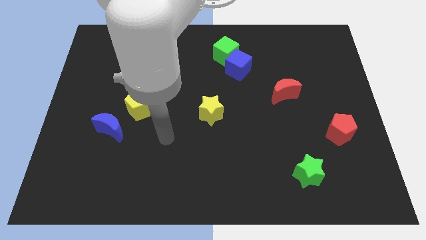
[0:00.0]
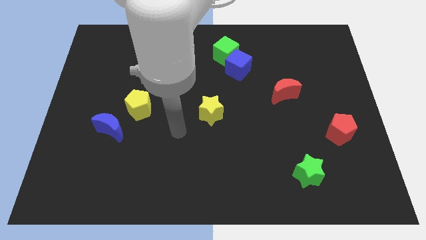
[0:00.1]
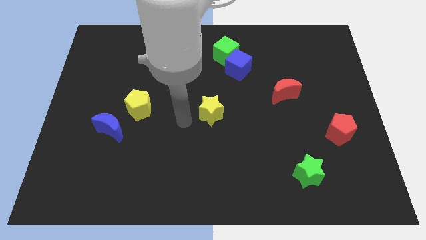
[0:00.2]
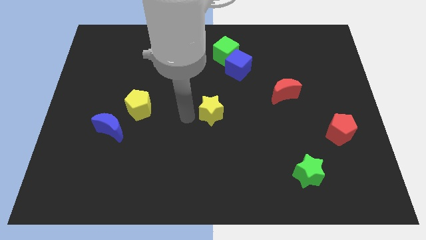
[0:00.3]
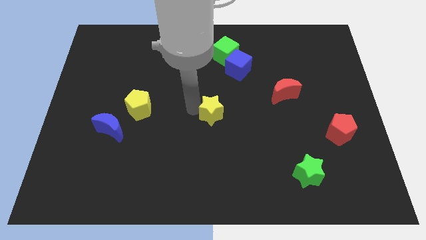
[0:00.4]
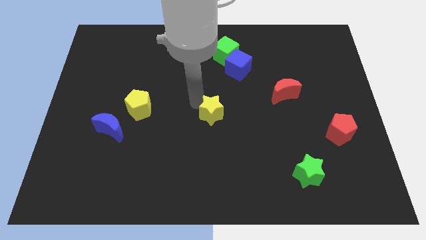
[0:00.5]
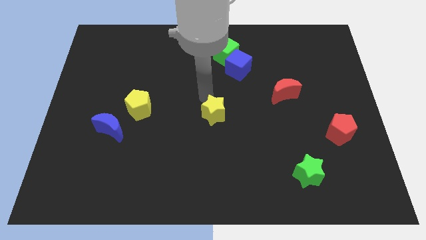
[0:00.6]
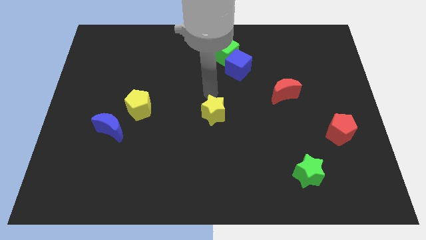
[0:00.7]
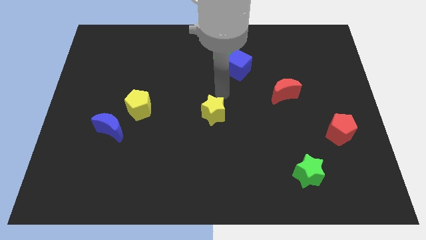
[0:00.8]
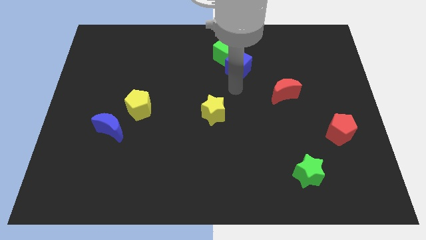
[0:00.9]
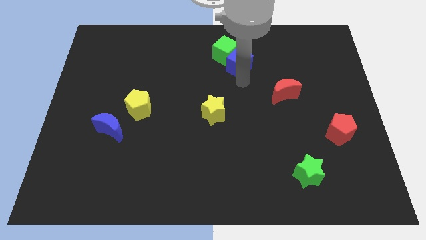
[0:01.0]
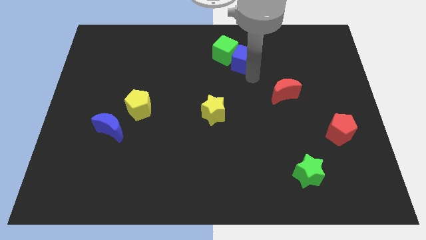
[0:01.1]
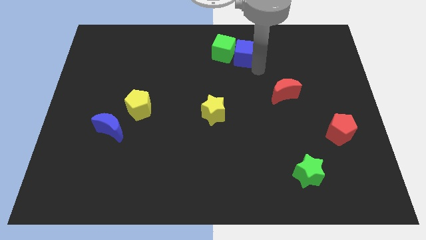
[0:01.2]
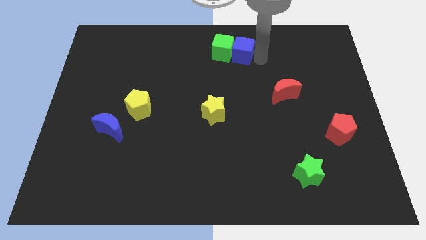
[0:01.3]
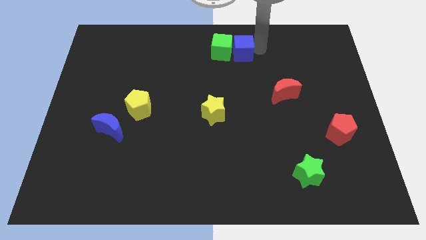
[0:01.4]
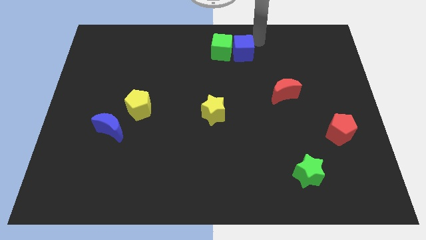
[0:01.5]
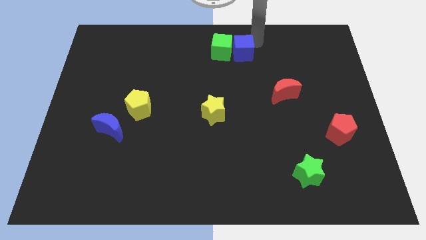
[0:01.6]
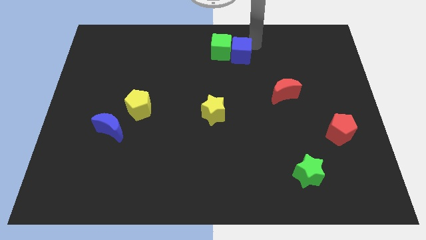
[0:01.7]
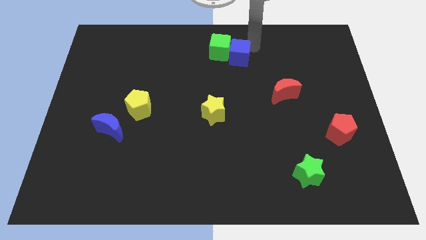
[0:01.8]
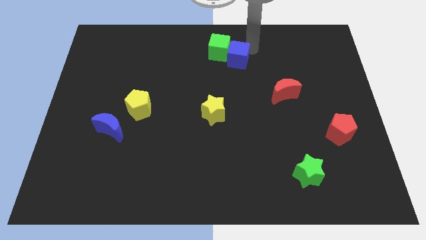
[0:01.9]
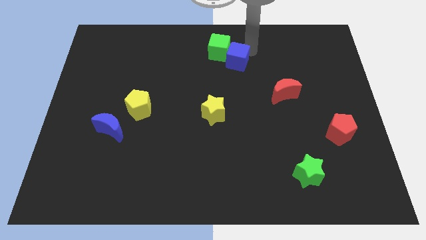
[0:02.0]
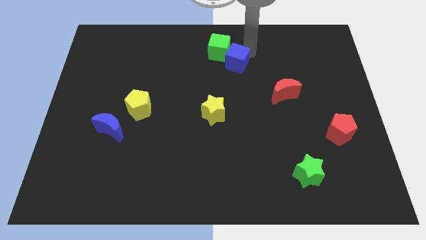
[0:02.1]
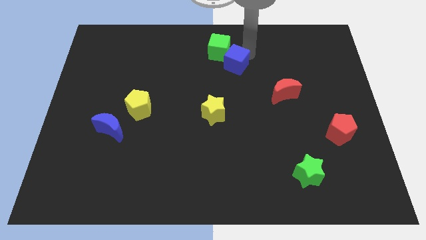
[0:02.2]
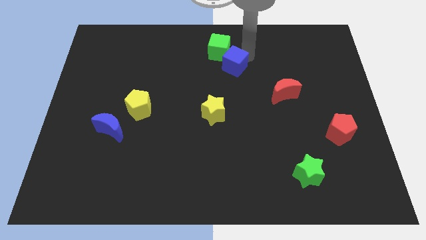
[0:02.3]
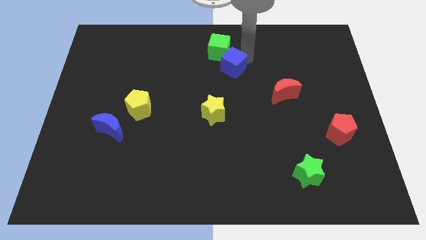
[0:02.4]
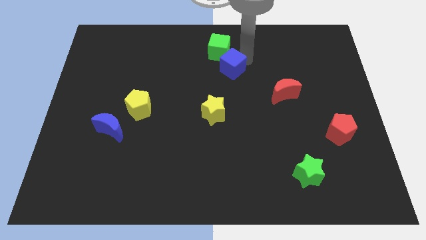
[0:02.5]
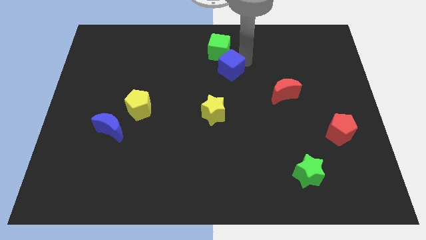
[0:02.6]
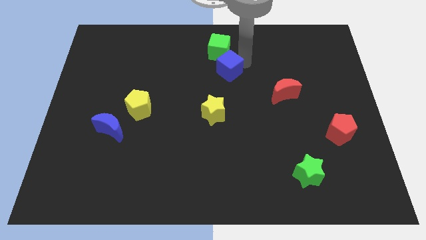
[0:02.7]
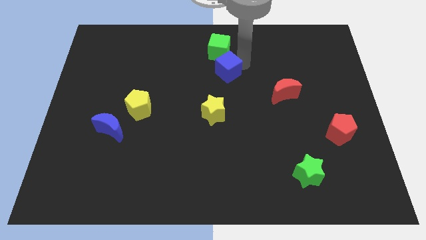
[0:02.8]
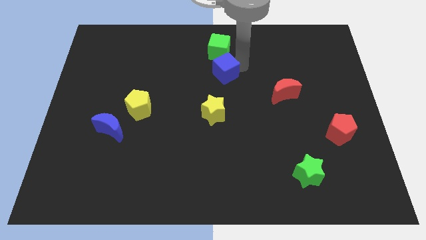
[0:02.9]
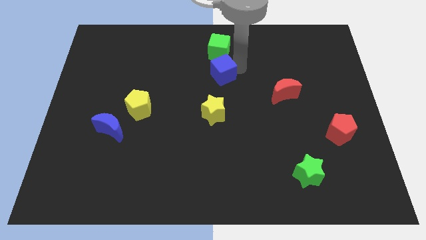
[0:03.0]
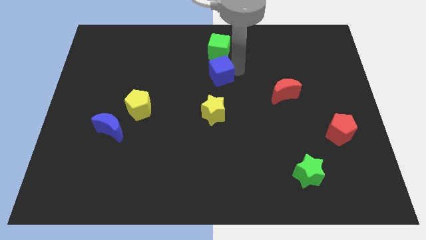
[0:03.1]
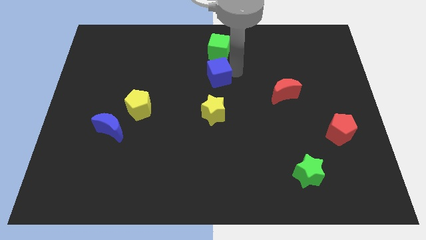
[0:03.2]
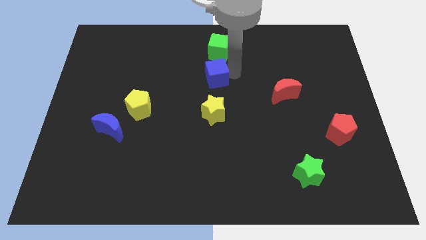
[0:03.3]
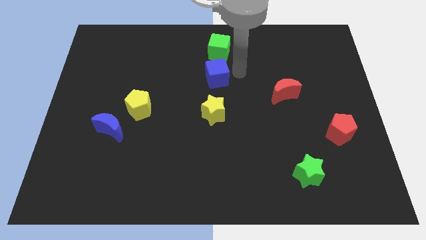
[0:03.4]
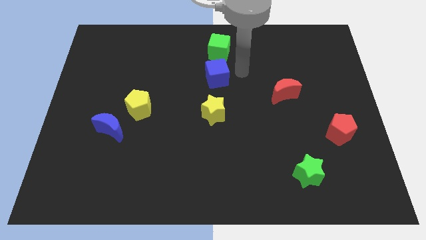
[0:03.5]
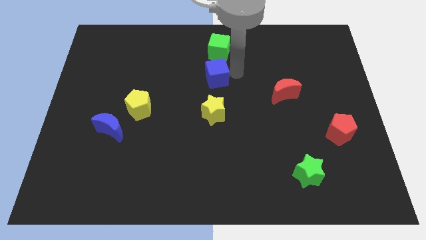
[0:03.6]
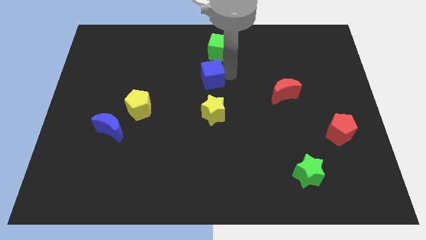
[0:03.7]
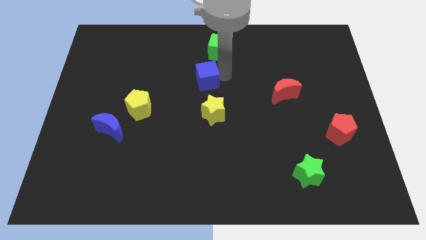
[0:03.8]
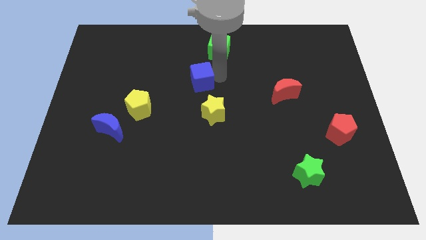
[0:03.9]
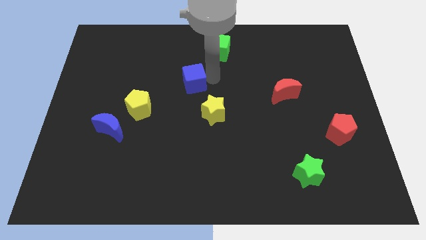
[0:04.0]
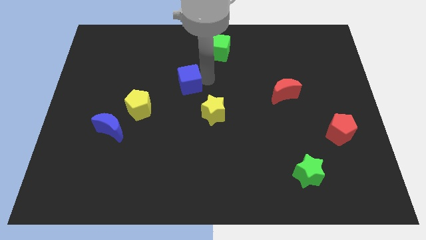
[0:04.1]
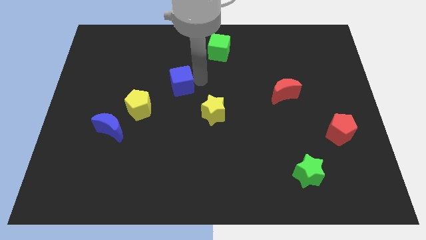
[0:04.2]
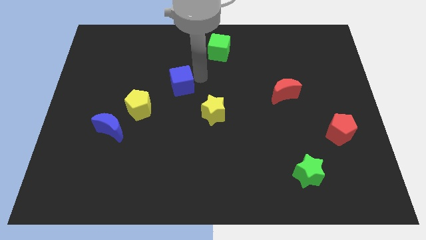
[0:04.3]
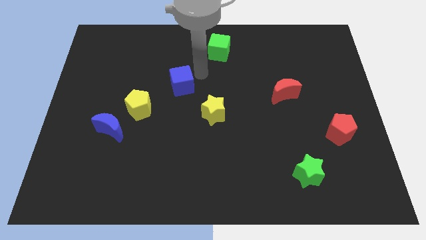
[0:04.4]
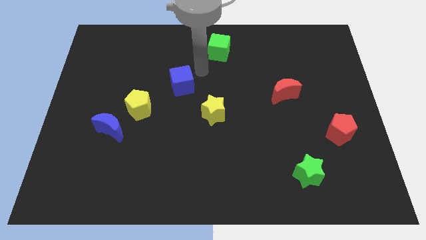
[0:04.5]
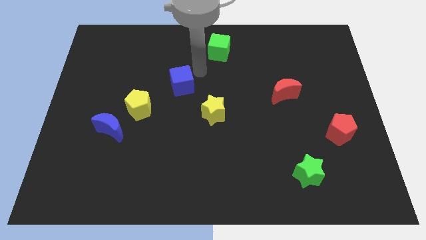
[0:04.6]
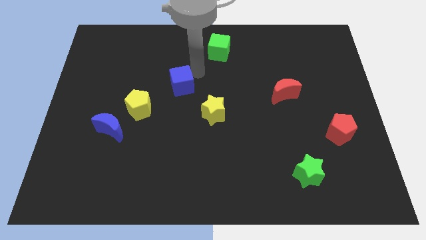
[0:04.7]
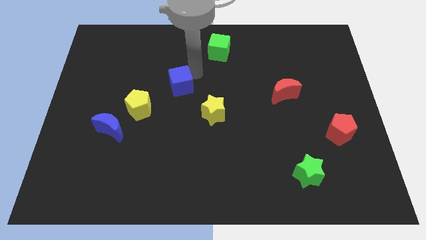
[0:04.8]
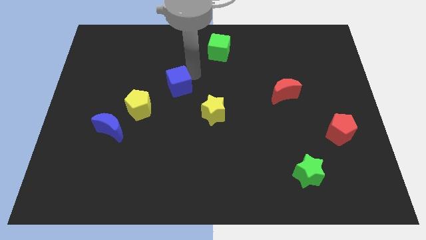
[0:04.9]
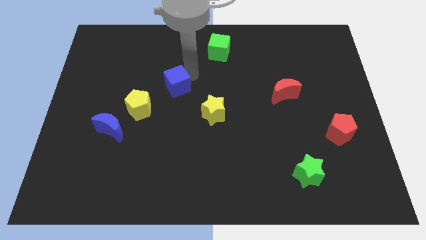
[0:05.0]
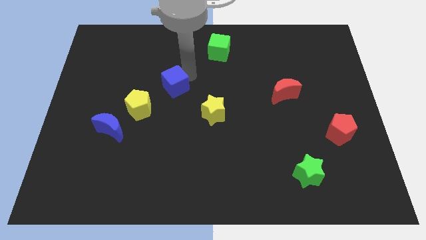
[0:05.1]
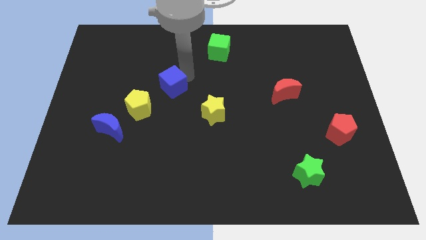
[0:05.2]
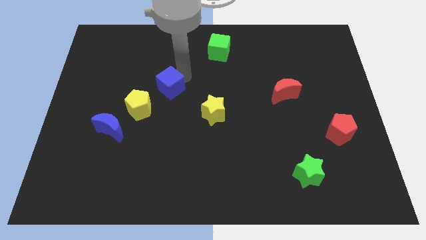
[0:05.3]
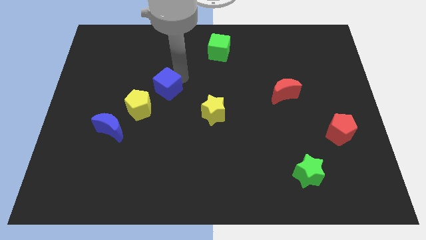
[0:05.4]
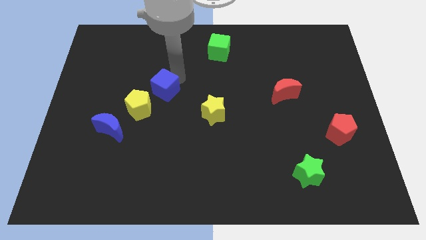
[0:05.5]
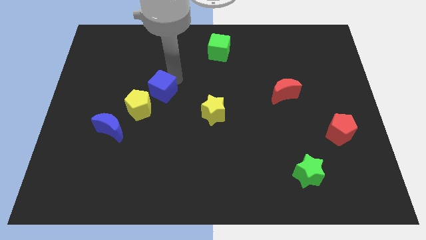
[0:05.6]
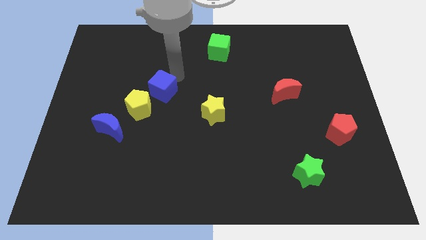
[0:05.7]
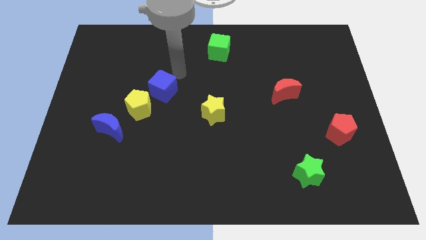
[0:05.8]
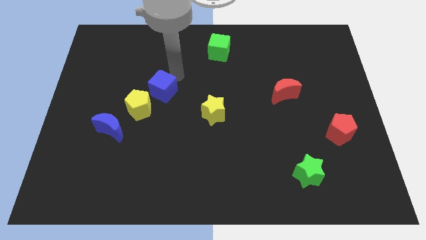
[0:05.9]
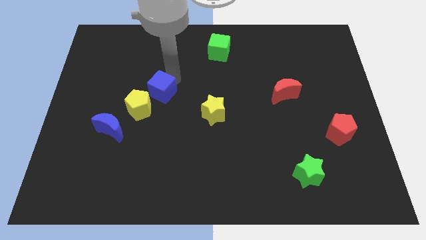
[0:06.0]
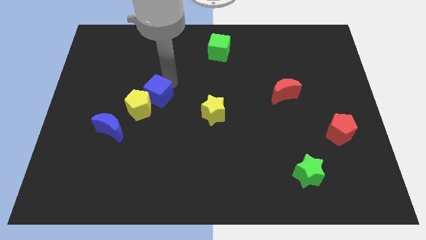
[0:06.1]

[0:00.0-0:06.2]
move the blue cube to the yellow pentagon

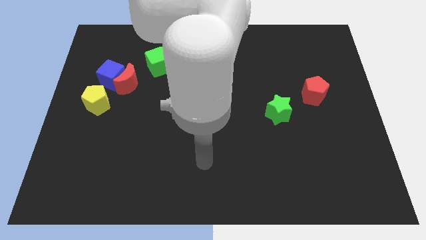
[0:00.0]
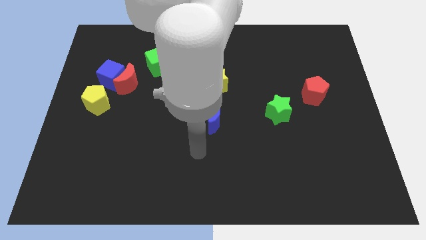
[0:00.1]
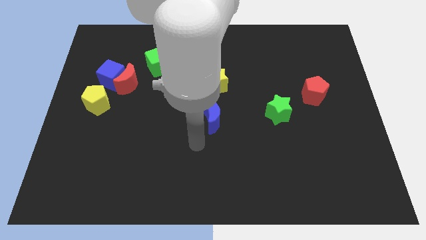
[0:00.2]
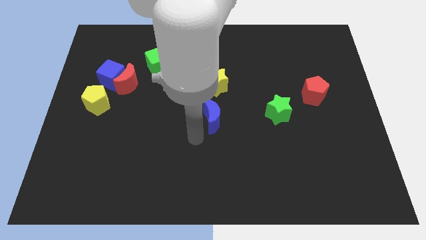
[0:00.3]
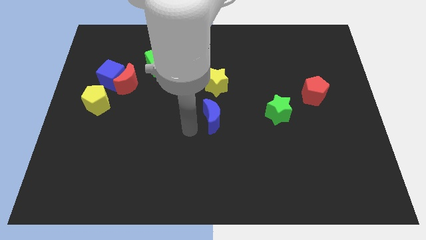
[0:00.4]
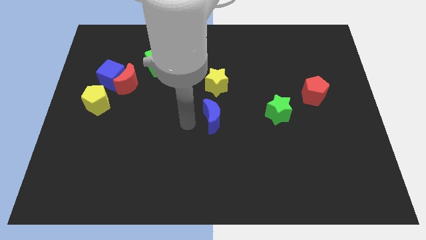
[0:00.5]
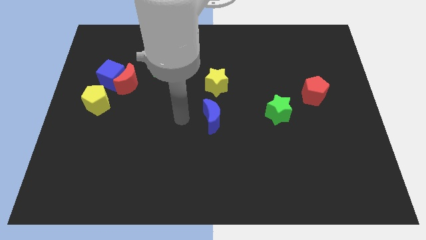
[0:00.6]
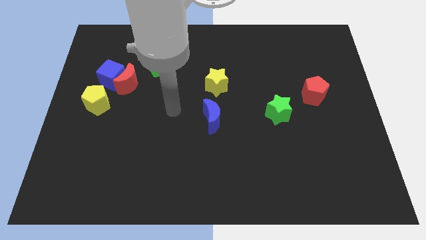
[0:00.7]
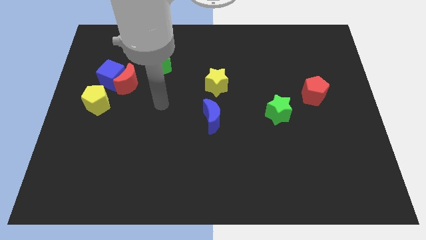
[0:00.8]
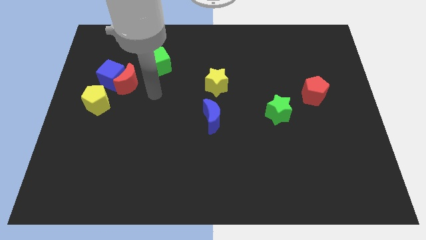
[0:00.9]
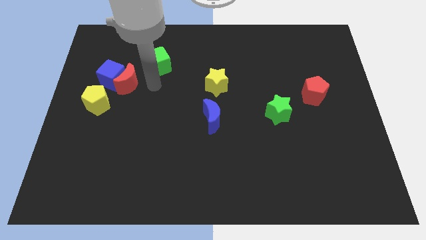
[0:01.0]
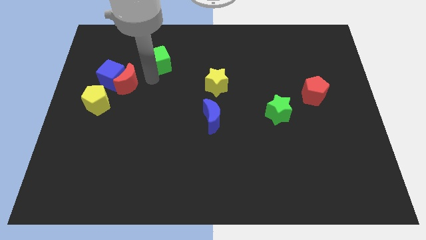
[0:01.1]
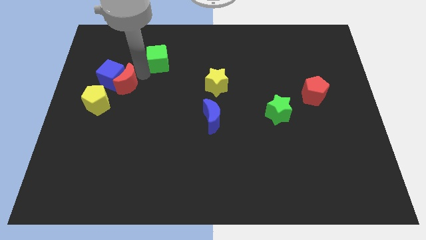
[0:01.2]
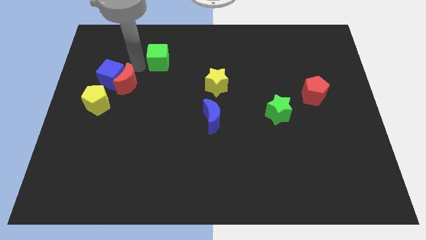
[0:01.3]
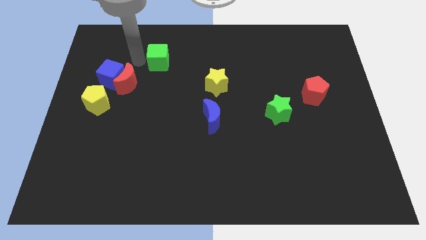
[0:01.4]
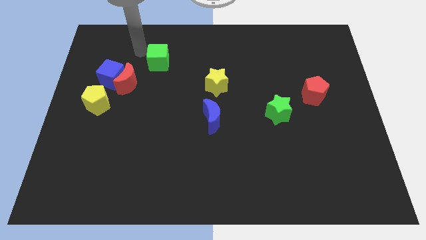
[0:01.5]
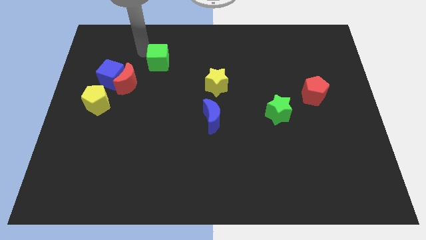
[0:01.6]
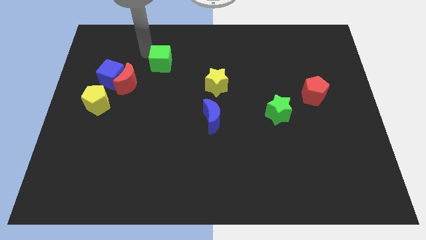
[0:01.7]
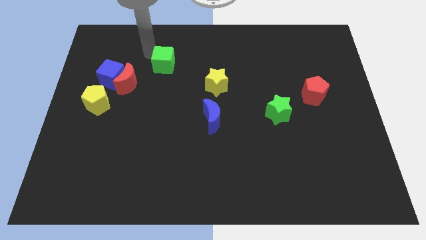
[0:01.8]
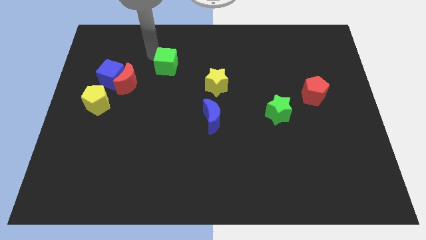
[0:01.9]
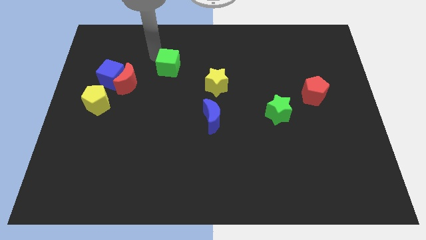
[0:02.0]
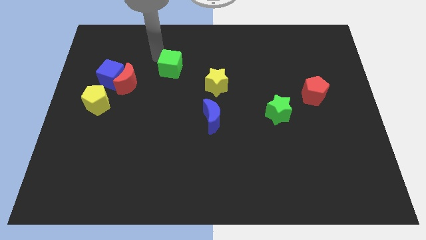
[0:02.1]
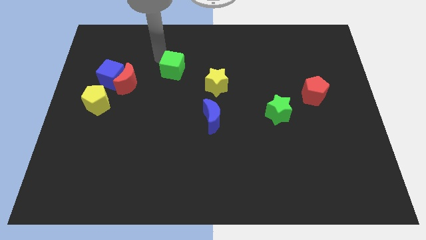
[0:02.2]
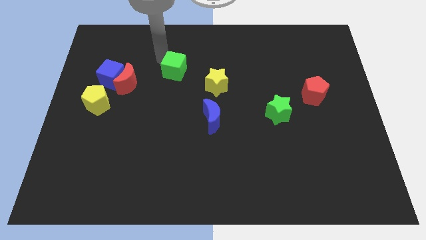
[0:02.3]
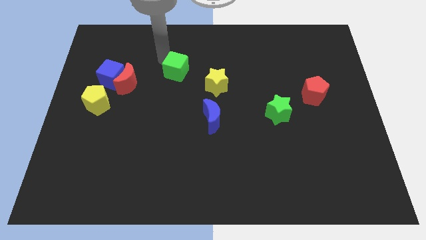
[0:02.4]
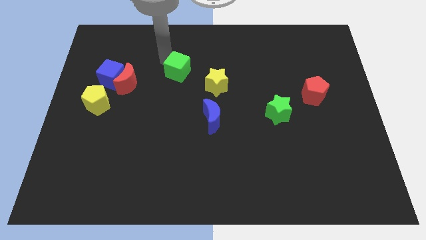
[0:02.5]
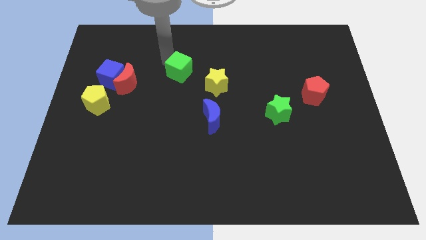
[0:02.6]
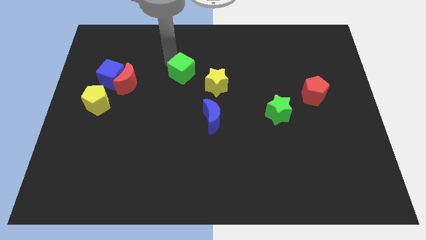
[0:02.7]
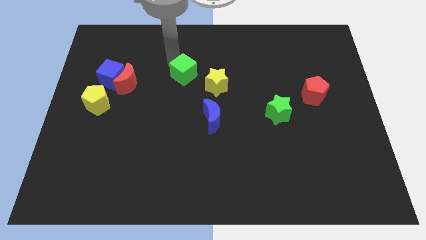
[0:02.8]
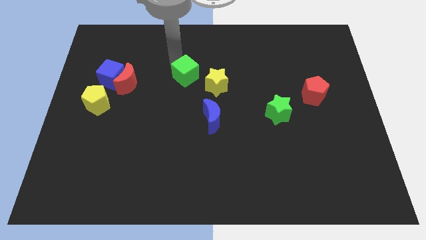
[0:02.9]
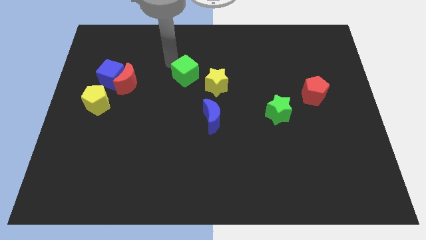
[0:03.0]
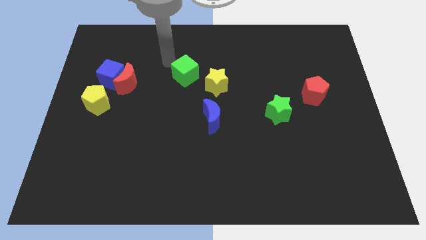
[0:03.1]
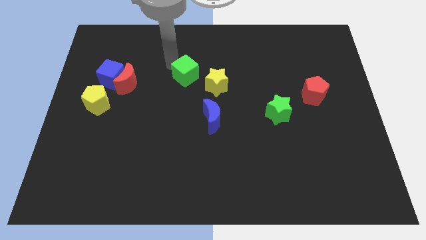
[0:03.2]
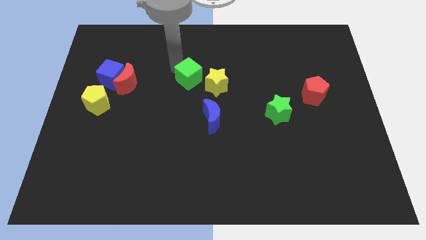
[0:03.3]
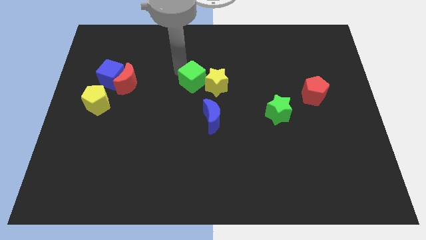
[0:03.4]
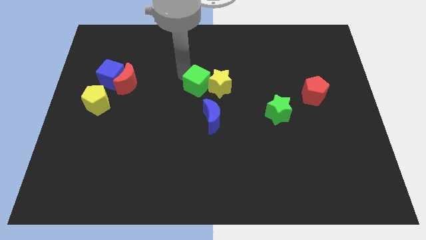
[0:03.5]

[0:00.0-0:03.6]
slide the green cube towards the yellow star
